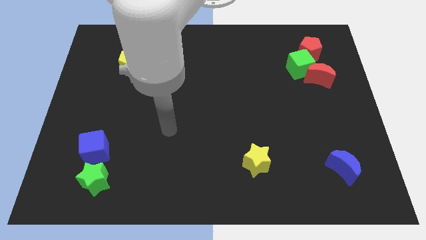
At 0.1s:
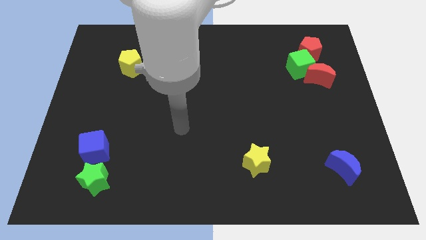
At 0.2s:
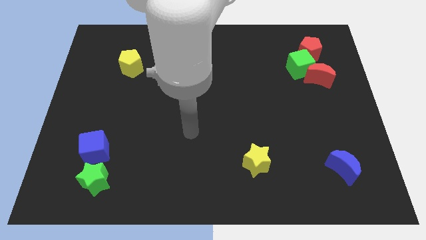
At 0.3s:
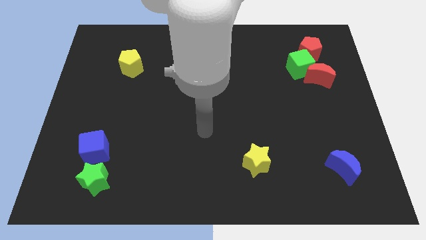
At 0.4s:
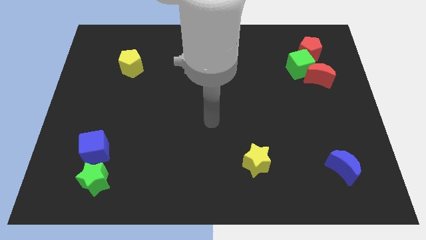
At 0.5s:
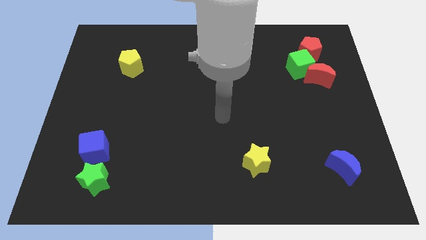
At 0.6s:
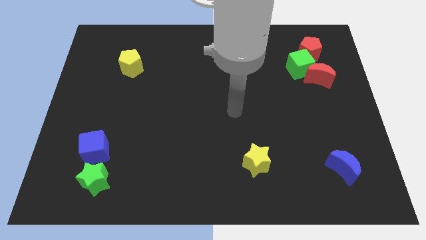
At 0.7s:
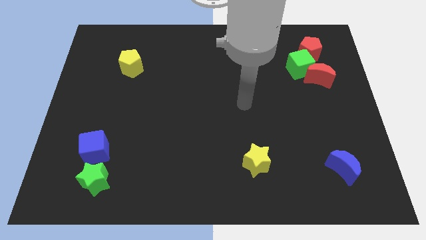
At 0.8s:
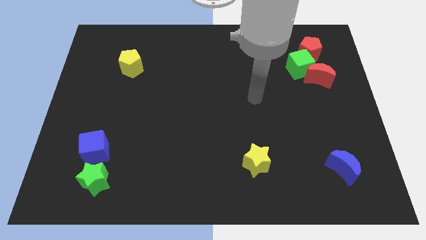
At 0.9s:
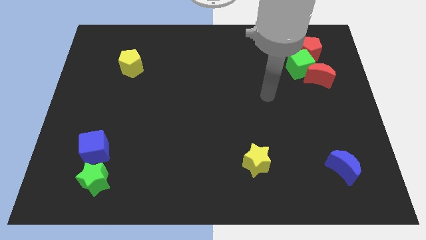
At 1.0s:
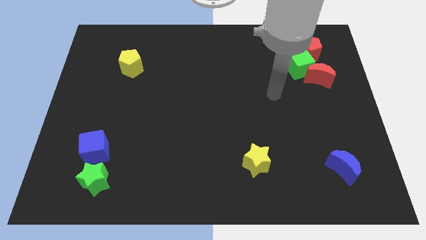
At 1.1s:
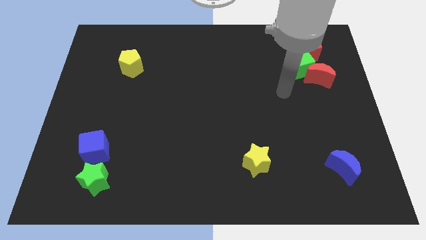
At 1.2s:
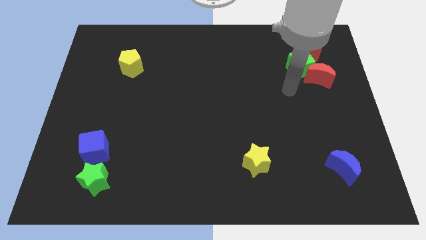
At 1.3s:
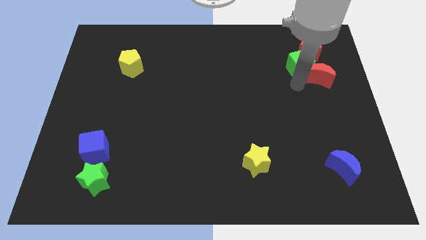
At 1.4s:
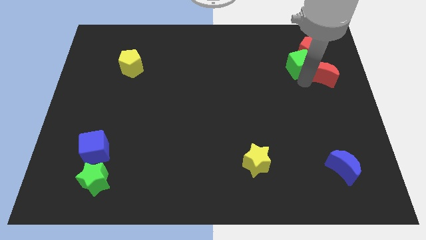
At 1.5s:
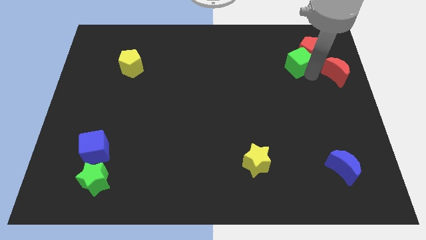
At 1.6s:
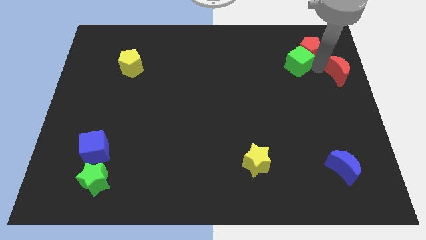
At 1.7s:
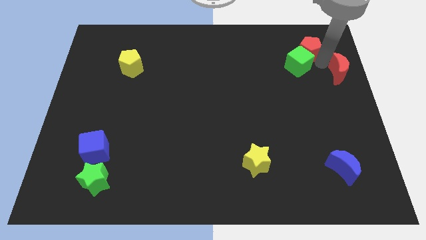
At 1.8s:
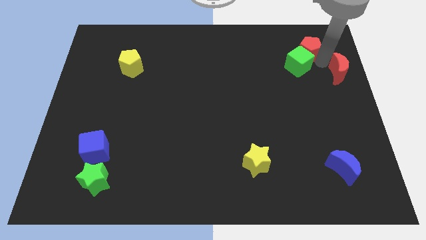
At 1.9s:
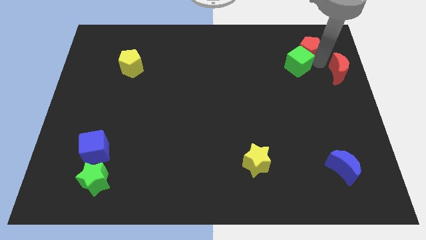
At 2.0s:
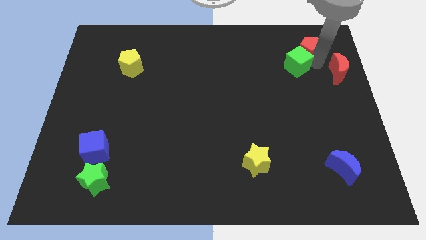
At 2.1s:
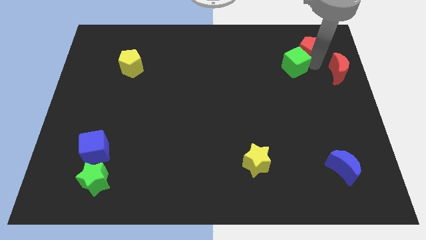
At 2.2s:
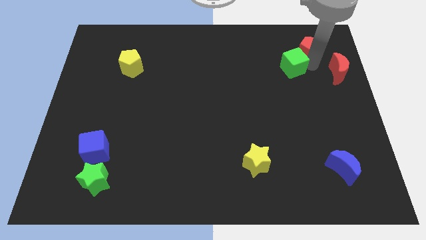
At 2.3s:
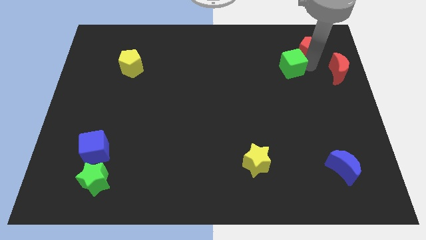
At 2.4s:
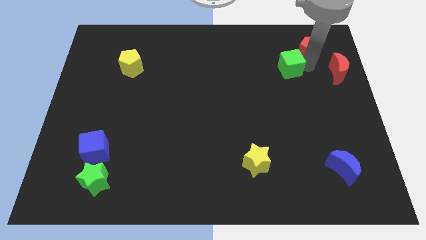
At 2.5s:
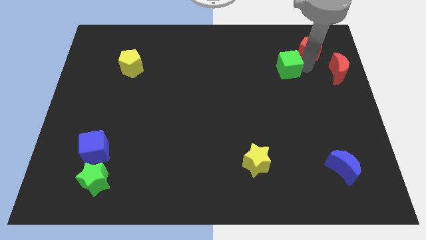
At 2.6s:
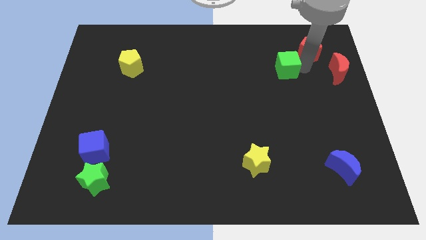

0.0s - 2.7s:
move the green cube away from the red moon and red pentagon

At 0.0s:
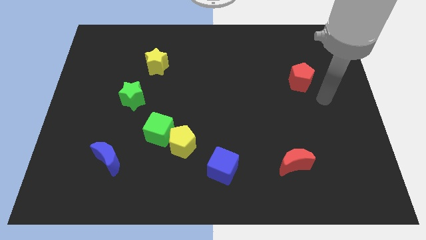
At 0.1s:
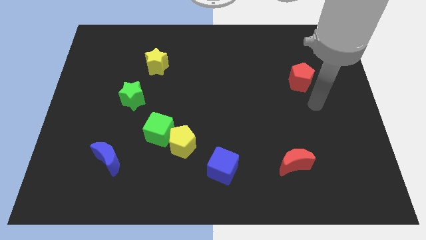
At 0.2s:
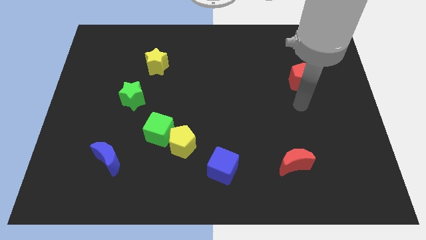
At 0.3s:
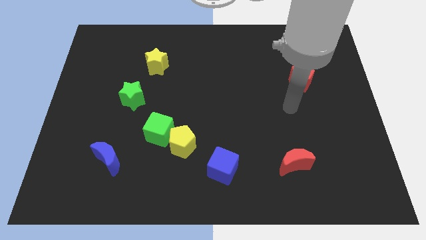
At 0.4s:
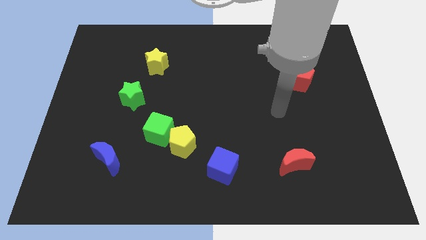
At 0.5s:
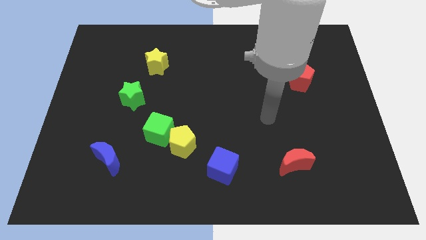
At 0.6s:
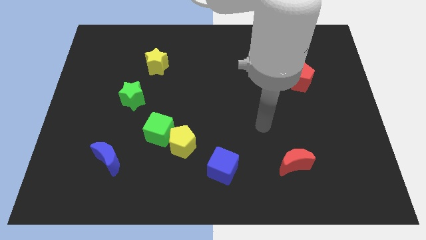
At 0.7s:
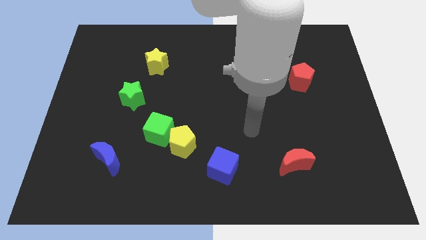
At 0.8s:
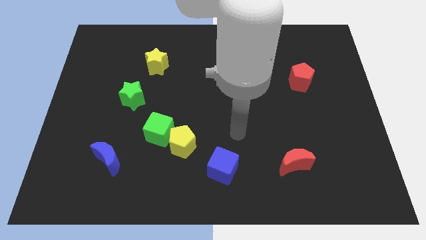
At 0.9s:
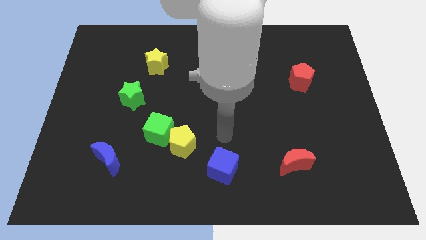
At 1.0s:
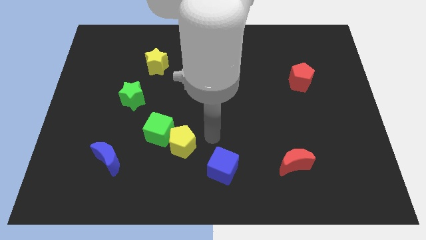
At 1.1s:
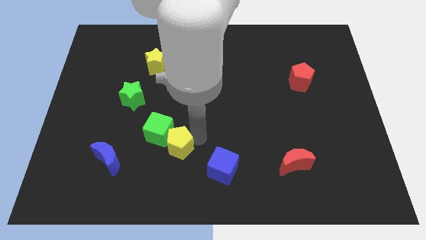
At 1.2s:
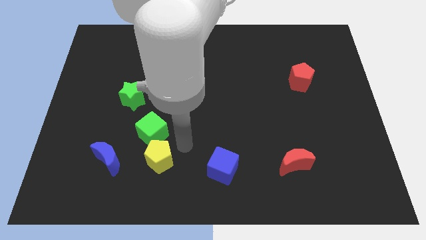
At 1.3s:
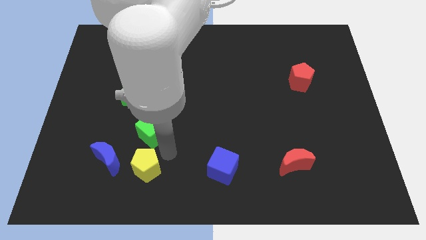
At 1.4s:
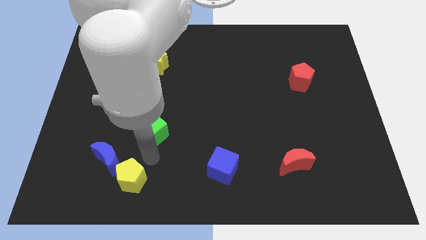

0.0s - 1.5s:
separate the green cube from the yellow pentagon

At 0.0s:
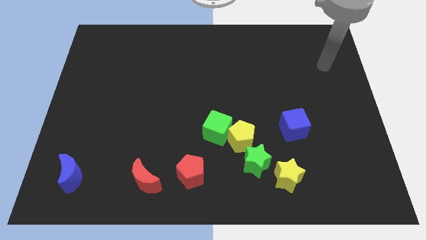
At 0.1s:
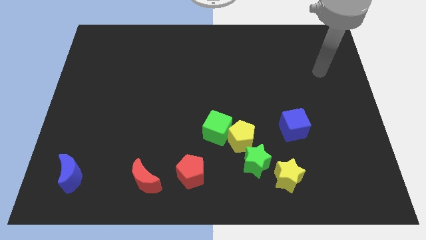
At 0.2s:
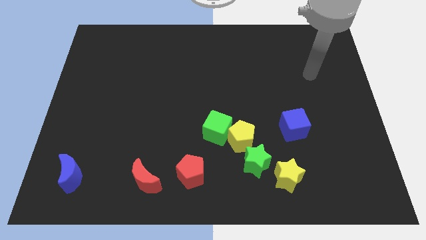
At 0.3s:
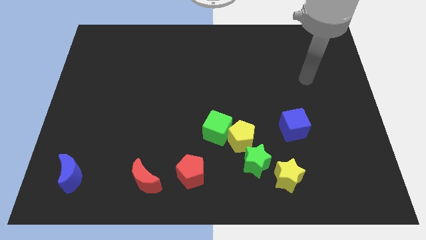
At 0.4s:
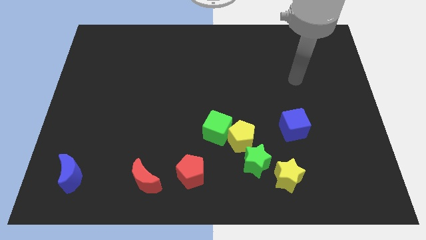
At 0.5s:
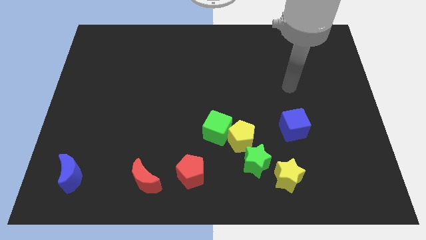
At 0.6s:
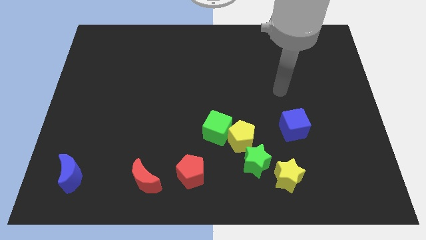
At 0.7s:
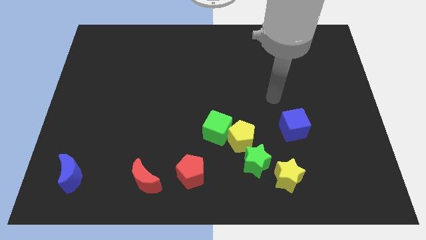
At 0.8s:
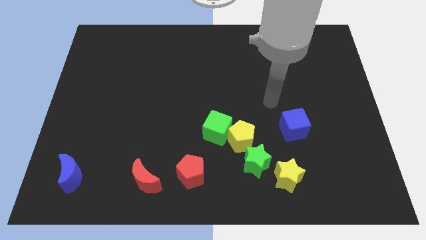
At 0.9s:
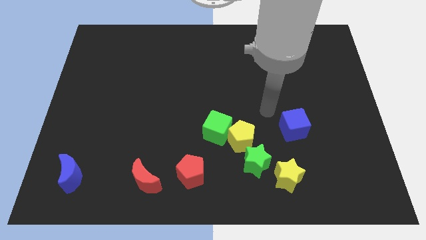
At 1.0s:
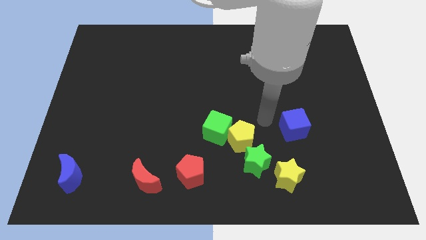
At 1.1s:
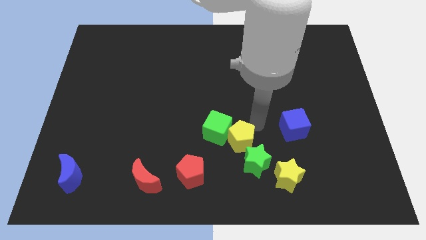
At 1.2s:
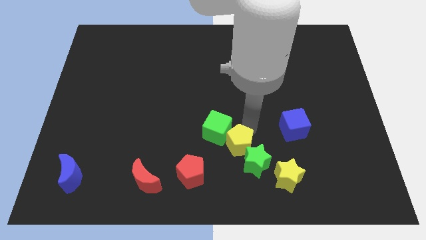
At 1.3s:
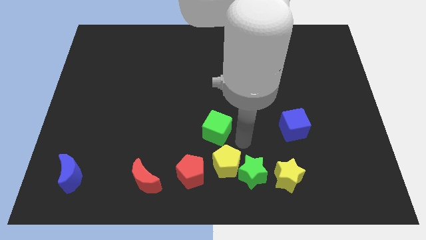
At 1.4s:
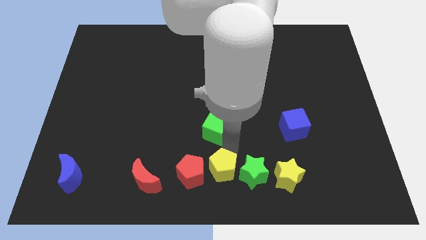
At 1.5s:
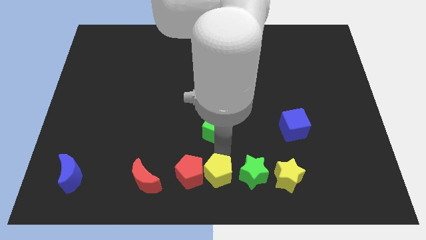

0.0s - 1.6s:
pull the green cube apart from the yellow pentagon

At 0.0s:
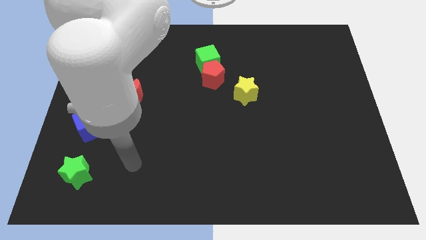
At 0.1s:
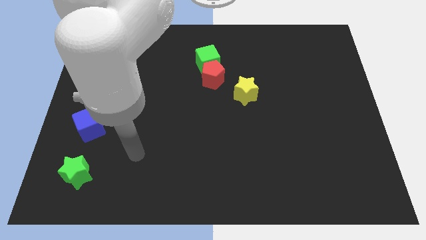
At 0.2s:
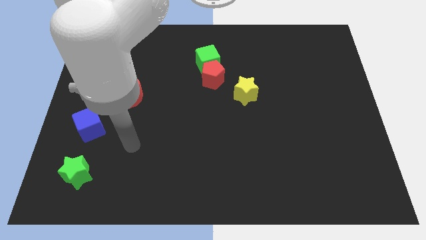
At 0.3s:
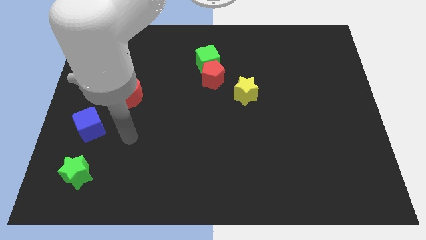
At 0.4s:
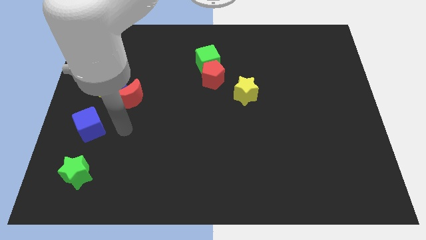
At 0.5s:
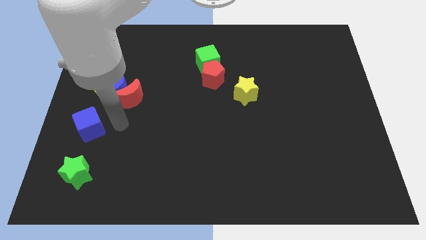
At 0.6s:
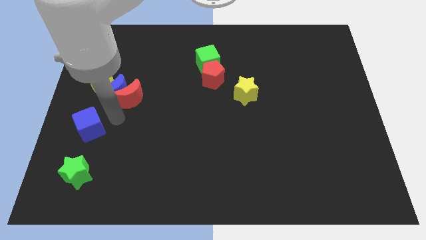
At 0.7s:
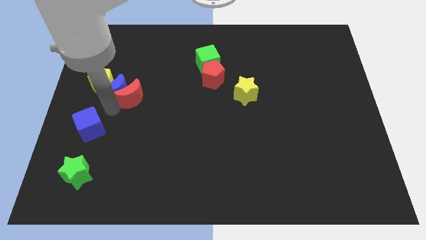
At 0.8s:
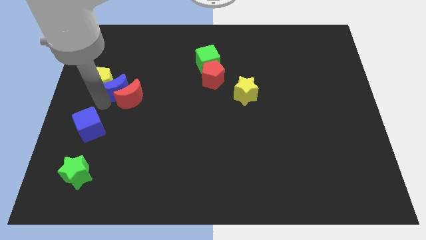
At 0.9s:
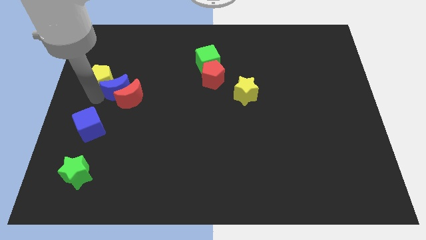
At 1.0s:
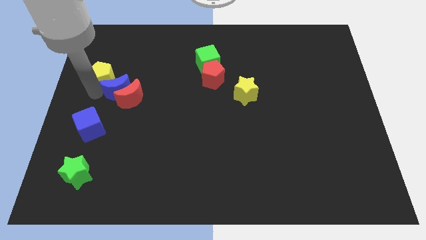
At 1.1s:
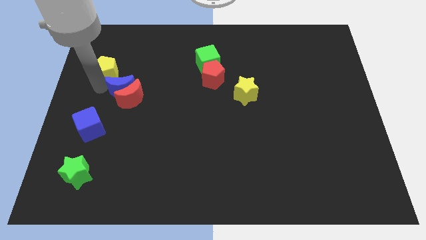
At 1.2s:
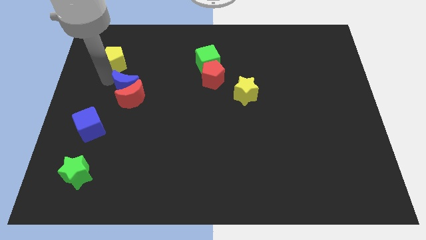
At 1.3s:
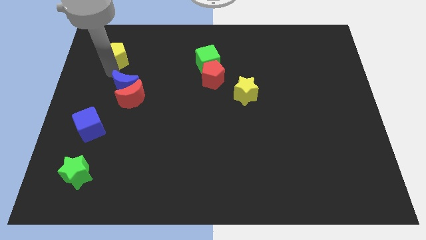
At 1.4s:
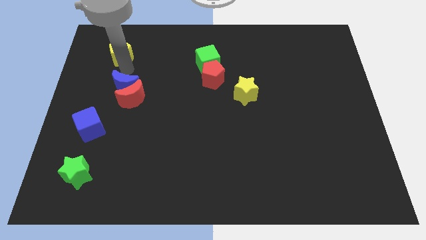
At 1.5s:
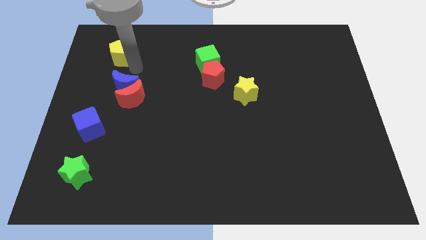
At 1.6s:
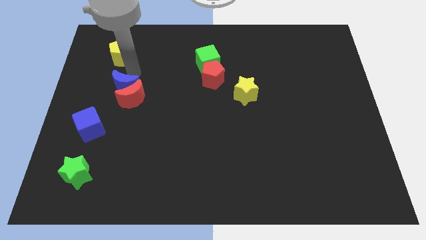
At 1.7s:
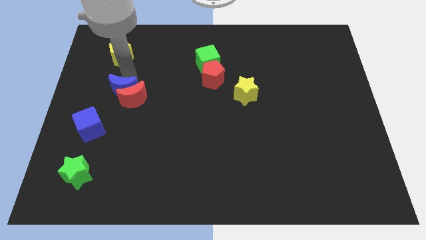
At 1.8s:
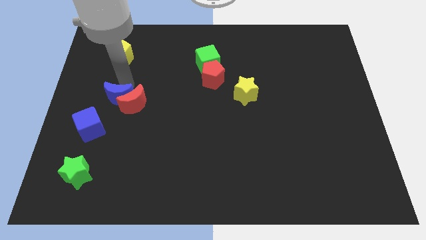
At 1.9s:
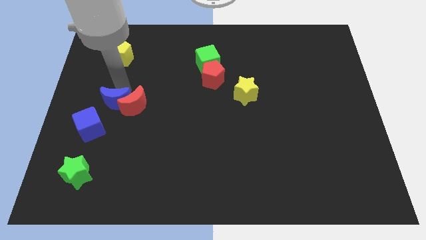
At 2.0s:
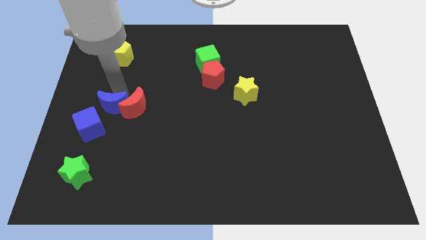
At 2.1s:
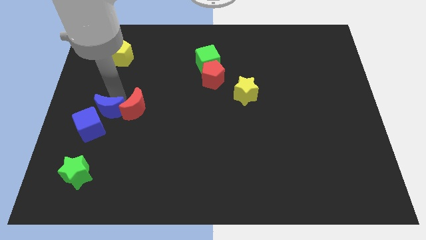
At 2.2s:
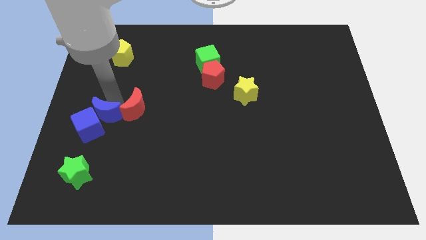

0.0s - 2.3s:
move the blue moon away from the red moon and yellow pentagon

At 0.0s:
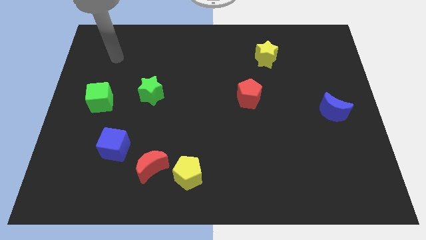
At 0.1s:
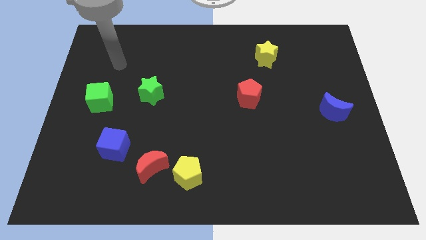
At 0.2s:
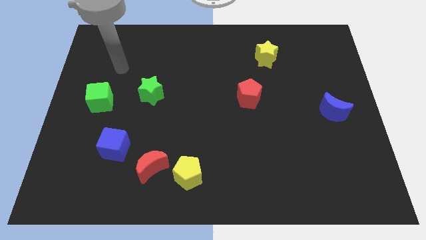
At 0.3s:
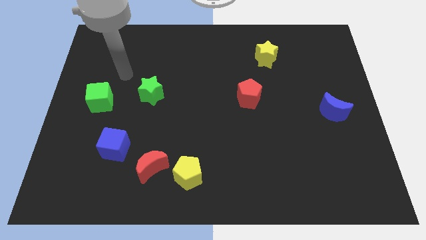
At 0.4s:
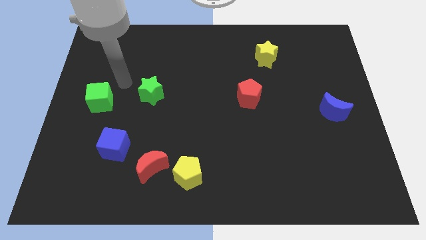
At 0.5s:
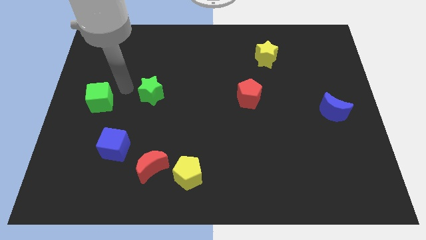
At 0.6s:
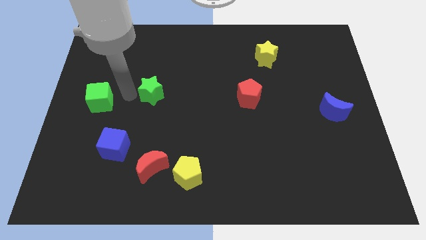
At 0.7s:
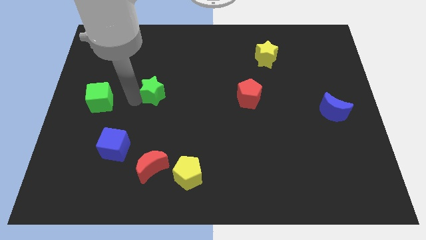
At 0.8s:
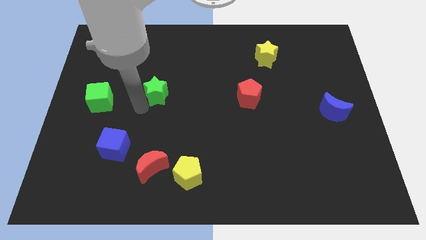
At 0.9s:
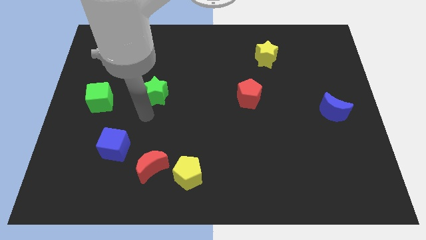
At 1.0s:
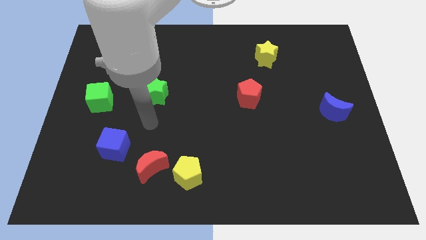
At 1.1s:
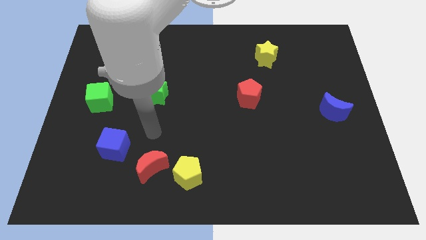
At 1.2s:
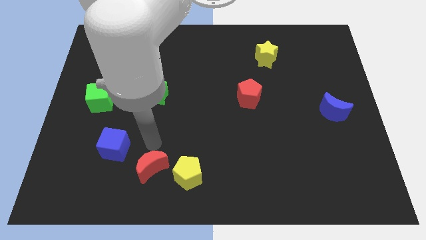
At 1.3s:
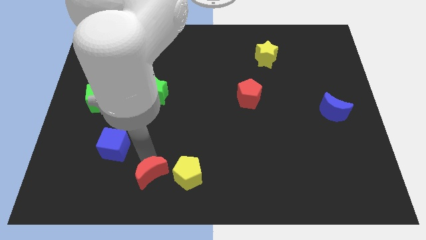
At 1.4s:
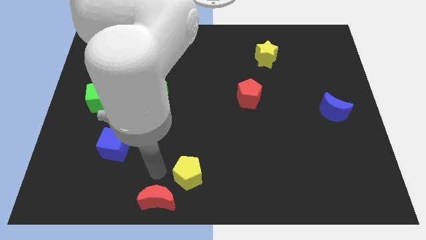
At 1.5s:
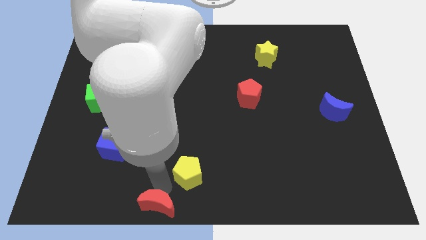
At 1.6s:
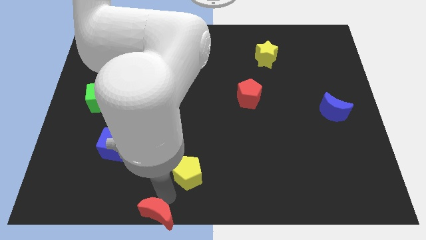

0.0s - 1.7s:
move the yellow pentagon away from the red moon
